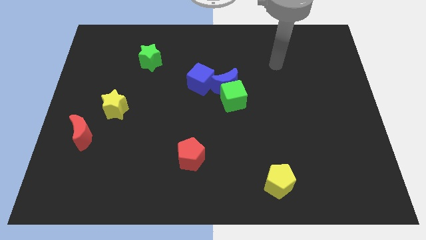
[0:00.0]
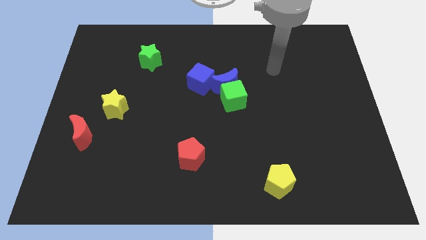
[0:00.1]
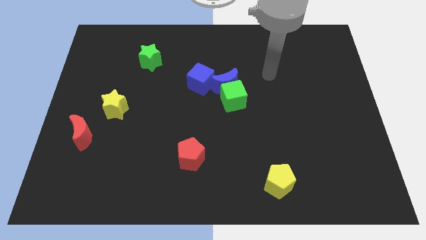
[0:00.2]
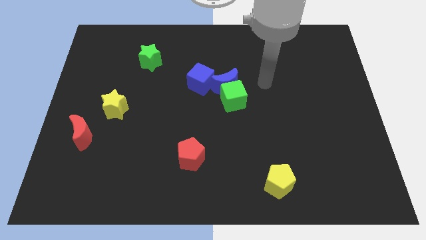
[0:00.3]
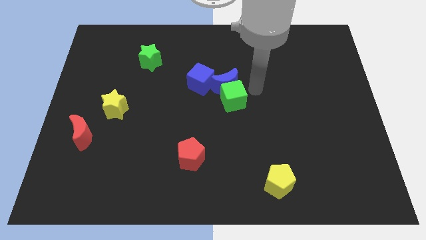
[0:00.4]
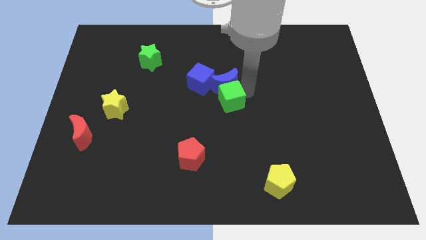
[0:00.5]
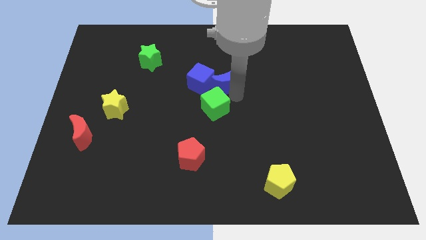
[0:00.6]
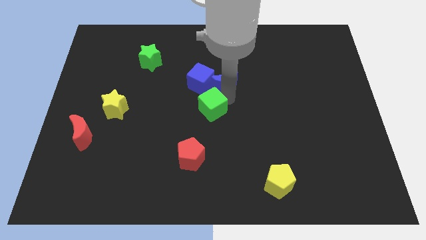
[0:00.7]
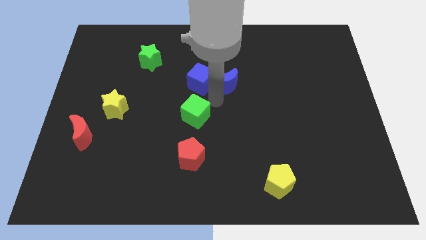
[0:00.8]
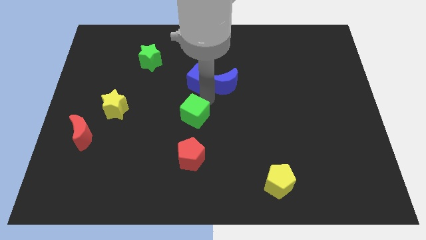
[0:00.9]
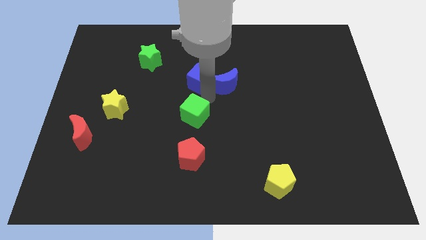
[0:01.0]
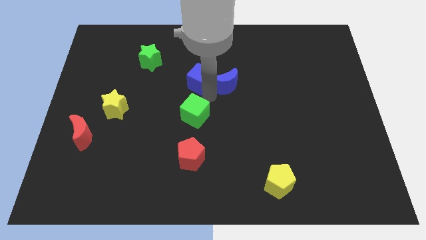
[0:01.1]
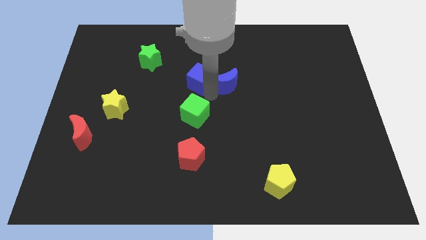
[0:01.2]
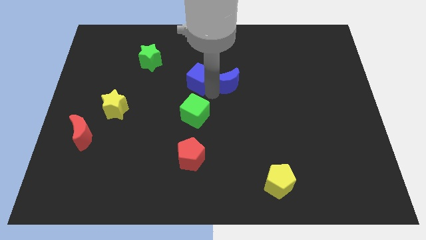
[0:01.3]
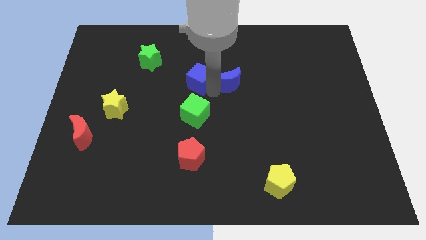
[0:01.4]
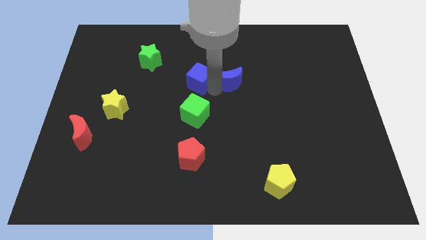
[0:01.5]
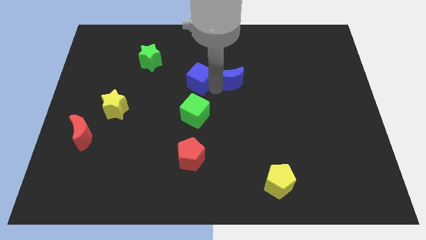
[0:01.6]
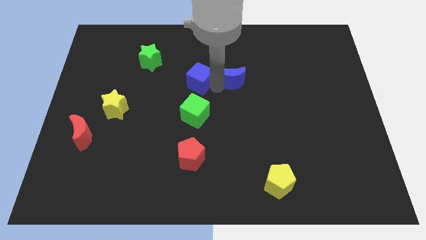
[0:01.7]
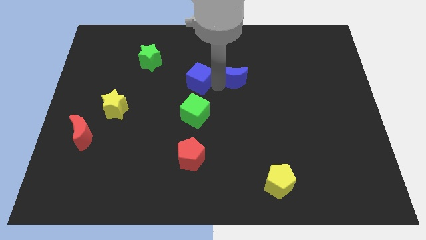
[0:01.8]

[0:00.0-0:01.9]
move the blue moon away from the green cube and blue cube

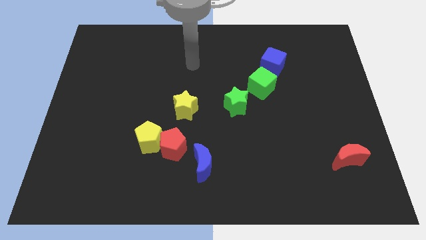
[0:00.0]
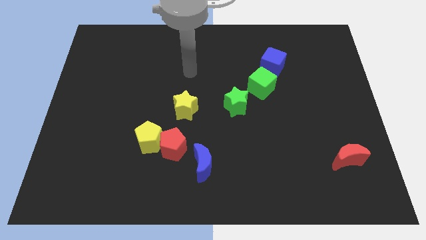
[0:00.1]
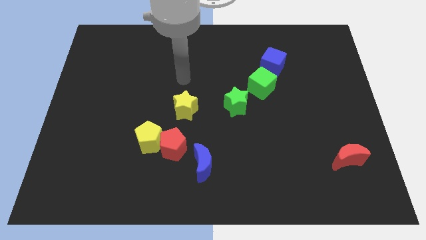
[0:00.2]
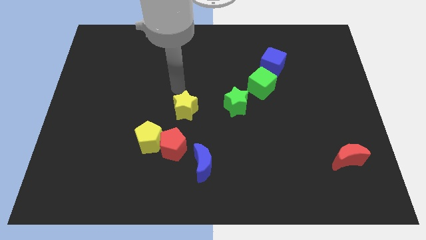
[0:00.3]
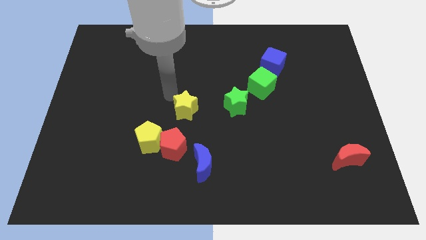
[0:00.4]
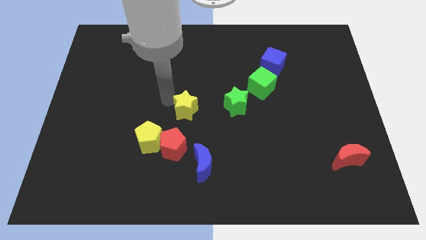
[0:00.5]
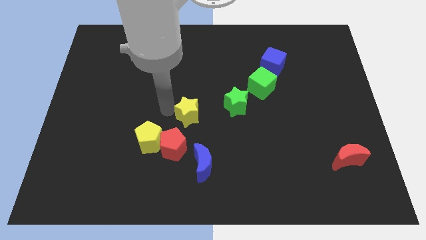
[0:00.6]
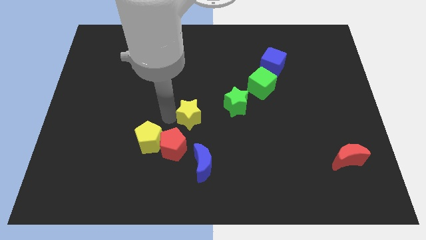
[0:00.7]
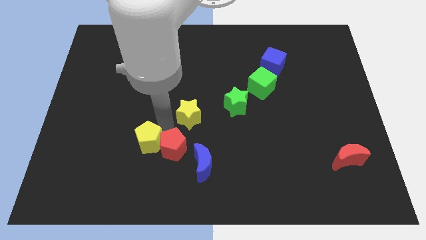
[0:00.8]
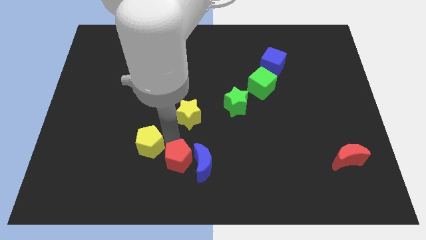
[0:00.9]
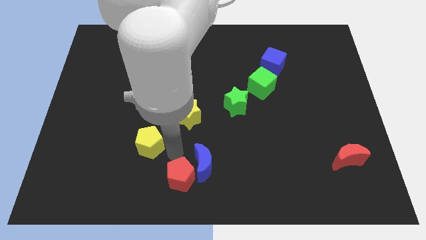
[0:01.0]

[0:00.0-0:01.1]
move the yellow pentagon away from the red pentagon

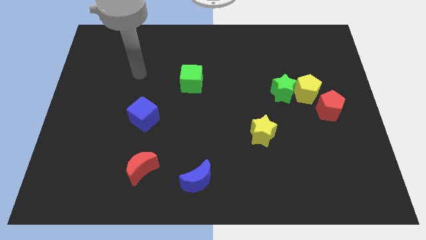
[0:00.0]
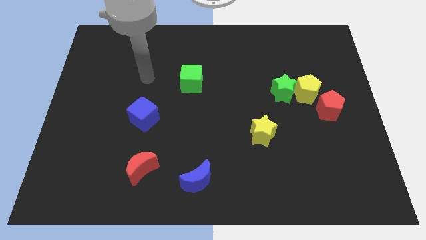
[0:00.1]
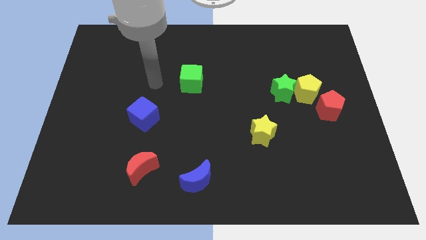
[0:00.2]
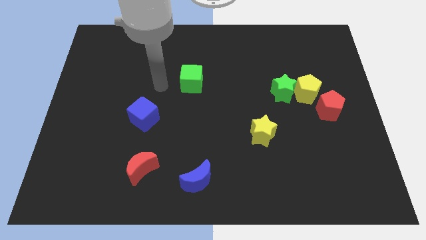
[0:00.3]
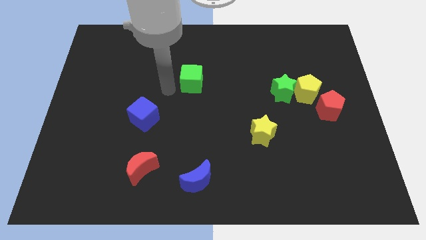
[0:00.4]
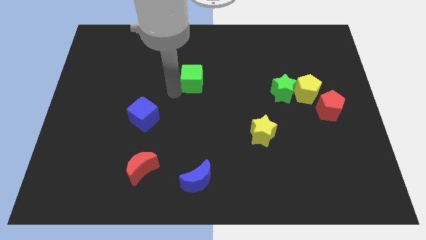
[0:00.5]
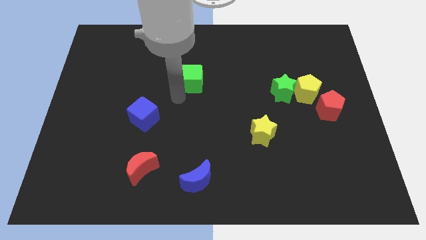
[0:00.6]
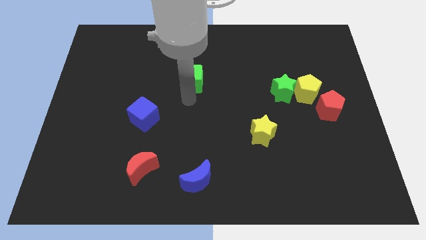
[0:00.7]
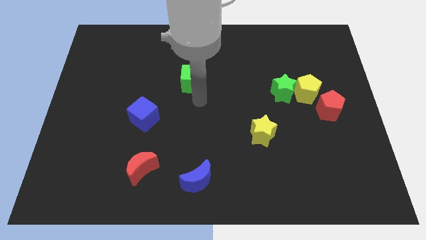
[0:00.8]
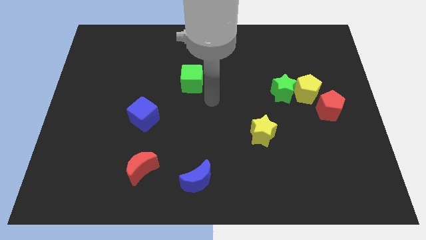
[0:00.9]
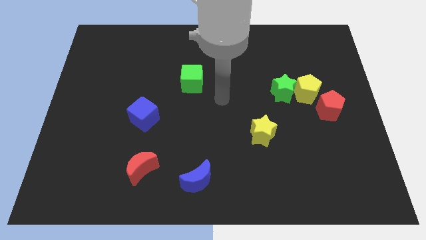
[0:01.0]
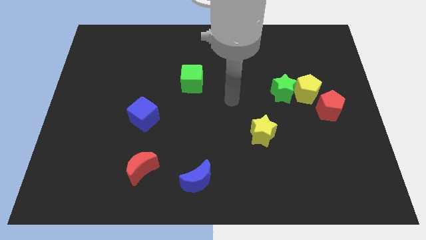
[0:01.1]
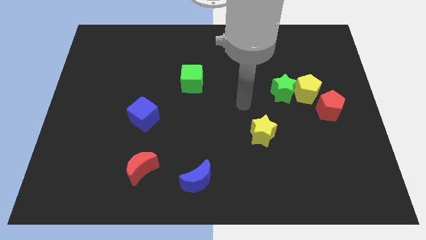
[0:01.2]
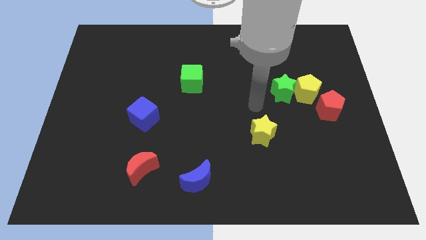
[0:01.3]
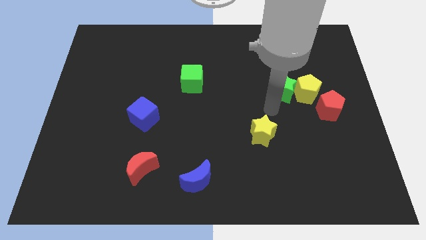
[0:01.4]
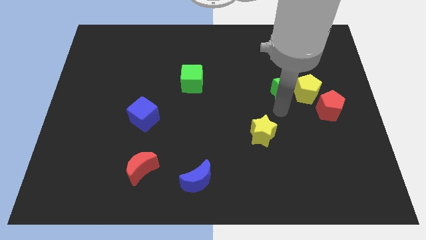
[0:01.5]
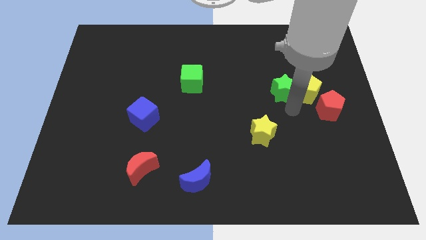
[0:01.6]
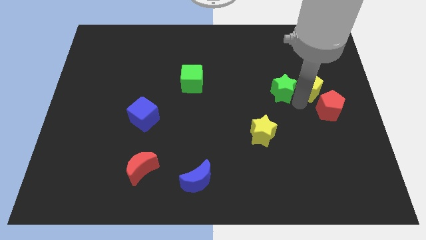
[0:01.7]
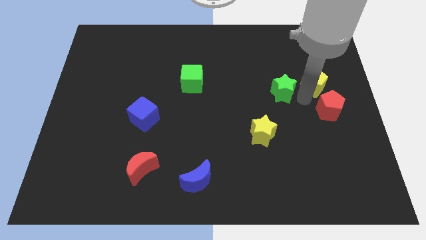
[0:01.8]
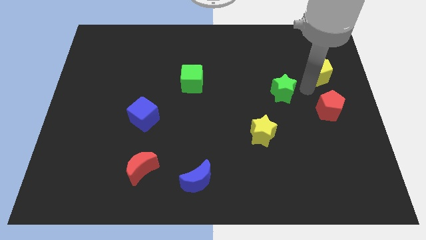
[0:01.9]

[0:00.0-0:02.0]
pull the green star apart from the yellow pentagon

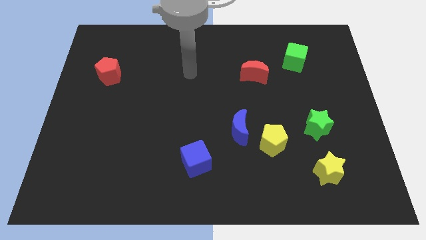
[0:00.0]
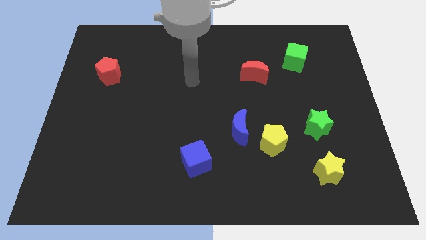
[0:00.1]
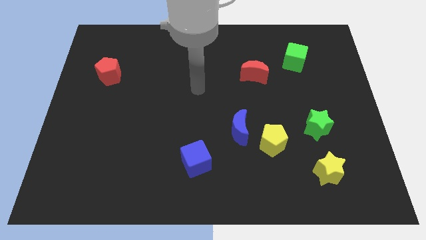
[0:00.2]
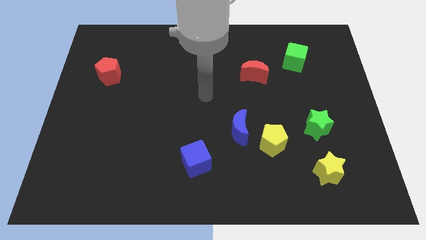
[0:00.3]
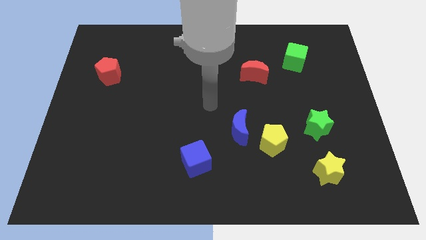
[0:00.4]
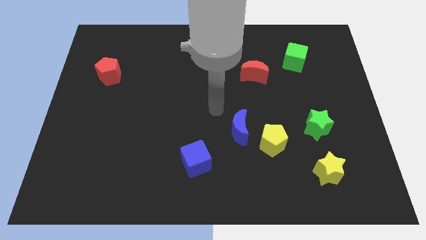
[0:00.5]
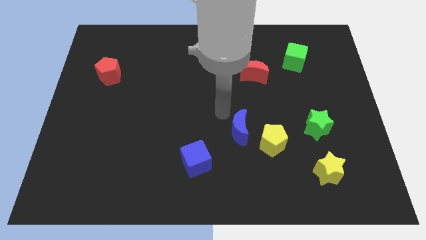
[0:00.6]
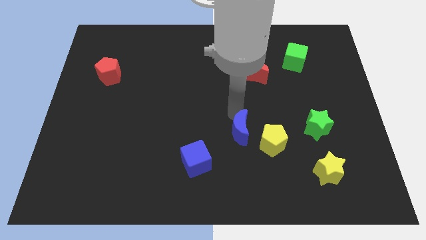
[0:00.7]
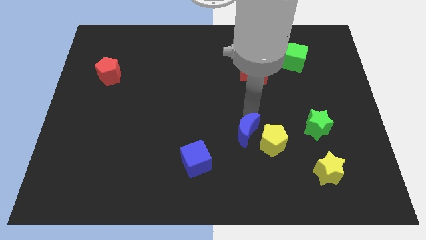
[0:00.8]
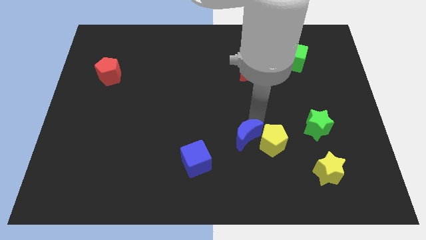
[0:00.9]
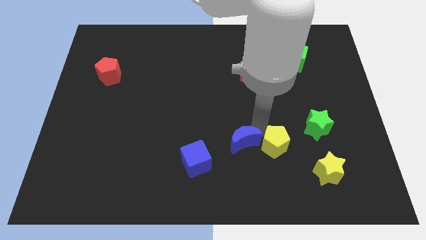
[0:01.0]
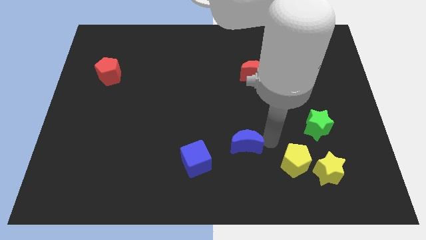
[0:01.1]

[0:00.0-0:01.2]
pull the blue moon apart from the yellow pentagon

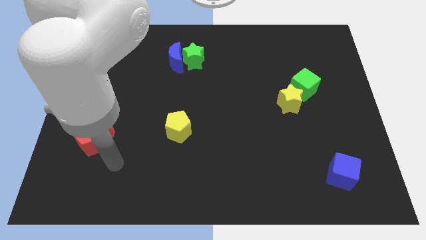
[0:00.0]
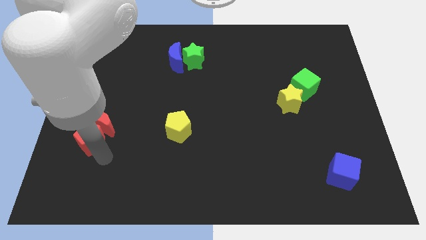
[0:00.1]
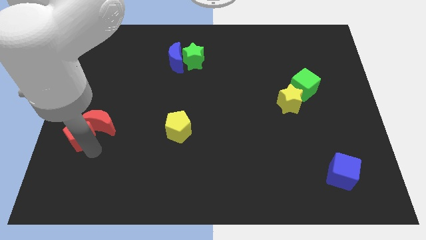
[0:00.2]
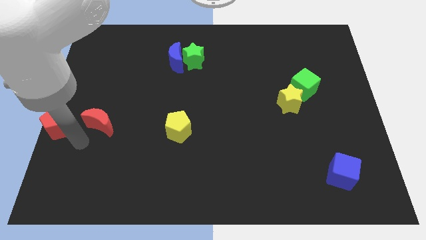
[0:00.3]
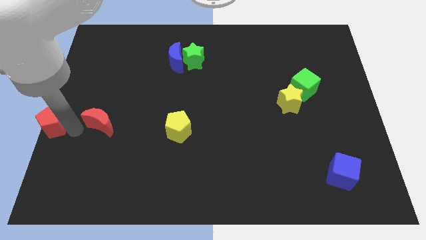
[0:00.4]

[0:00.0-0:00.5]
move the red moon away from the red pentagon

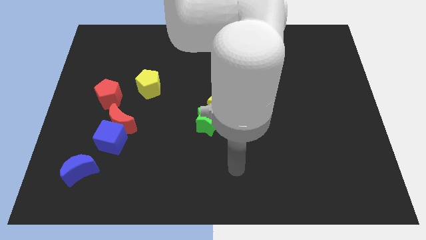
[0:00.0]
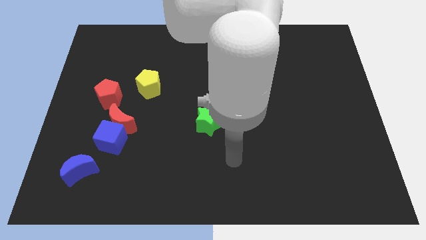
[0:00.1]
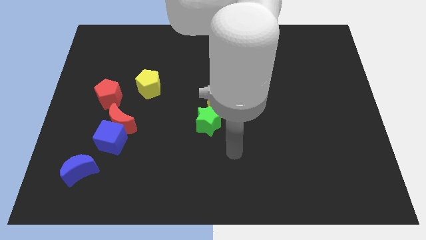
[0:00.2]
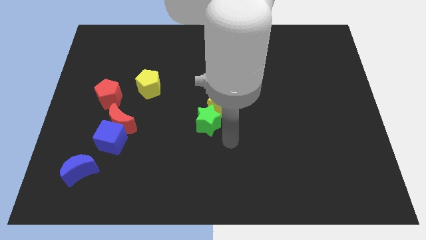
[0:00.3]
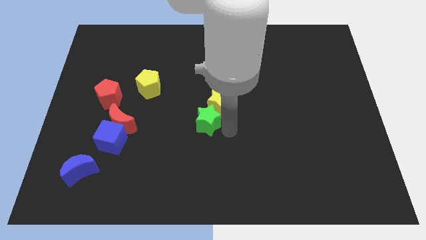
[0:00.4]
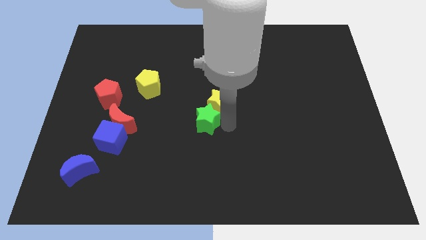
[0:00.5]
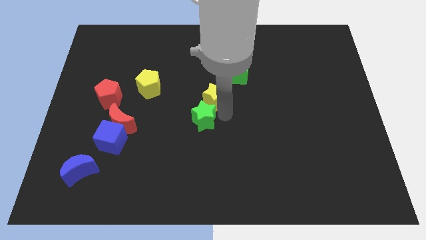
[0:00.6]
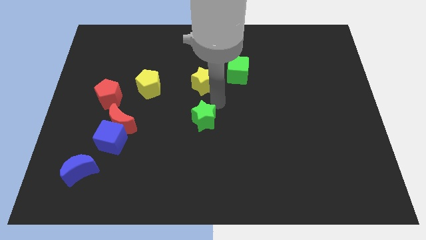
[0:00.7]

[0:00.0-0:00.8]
separate the green star from the yellow star

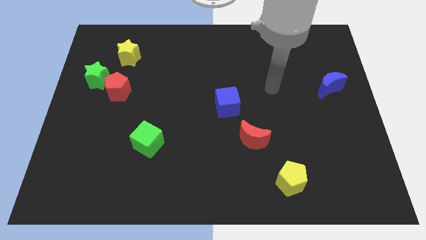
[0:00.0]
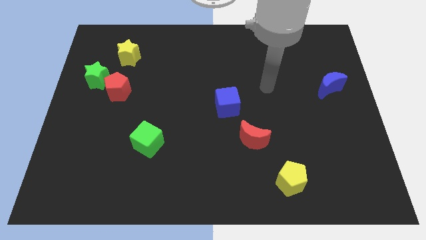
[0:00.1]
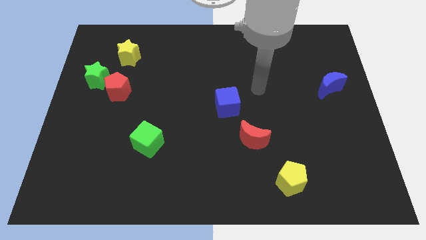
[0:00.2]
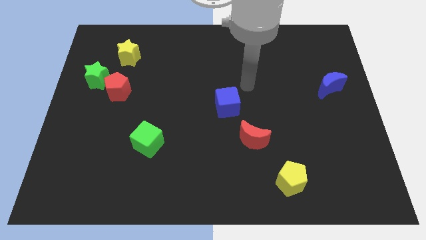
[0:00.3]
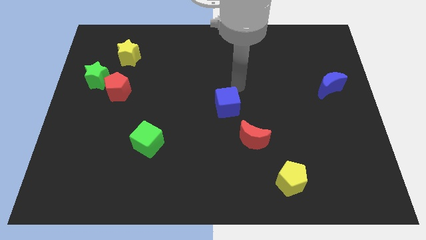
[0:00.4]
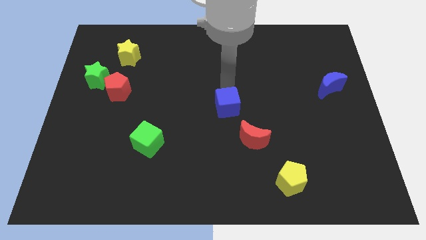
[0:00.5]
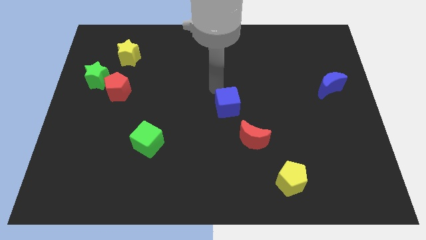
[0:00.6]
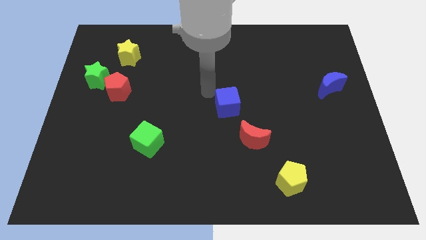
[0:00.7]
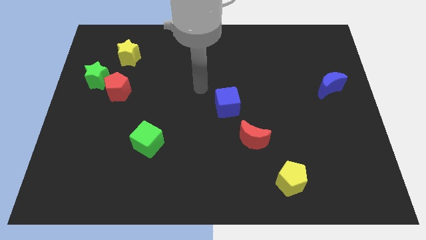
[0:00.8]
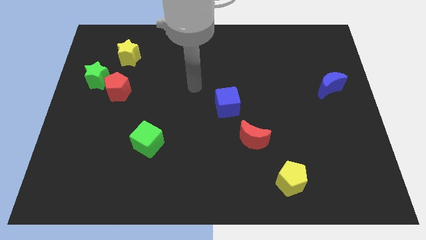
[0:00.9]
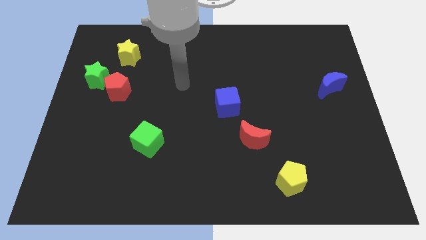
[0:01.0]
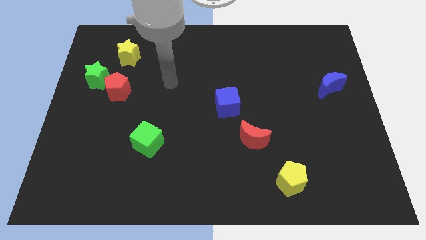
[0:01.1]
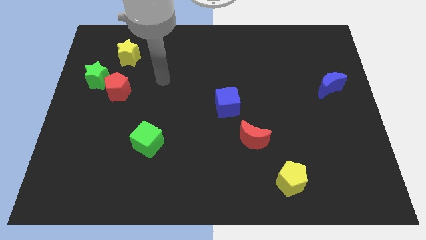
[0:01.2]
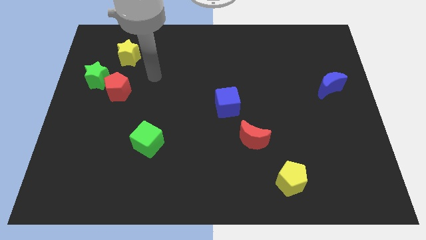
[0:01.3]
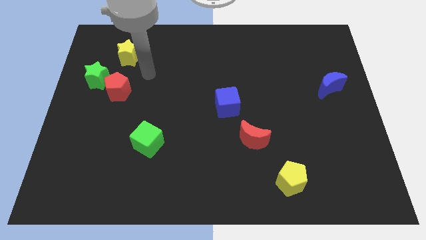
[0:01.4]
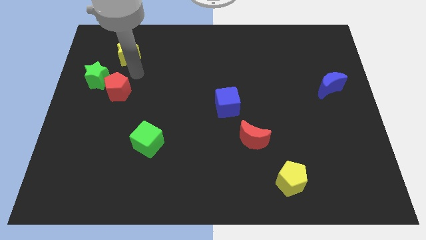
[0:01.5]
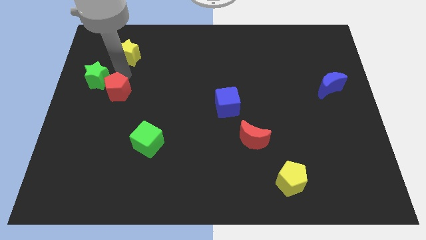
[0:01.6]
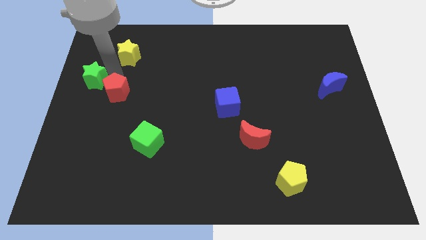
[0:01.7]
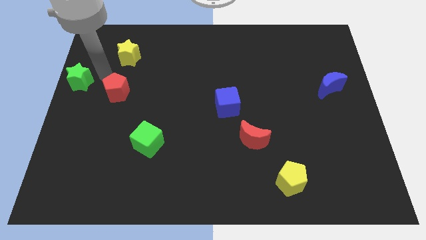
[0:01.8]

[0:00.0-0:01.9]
pull the red pentagon apart from the green star

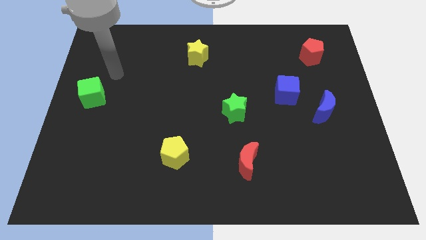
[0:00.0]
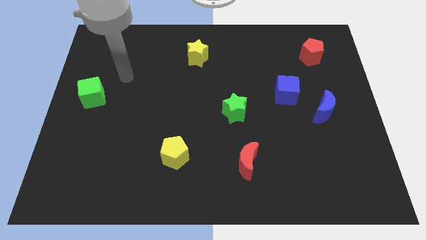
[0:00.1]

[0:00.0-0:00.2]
move the blue moon away from the blue cube
